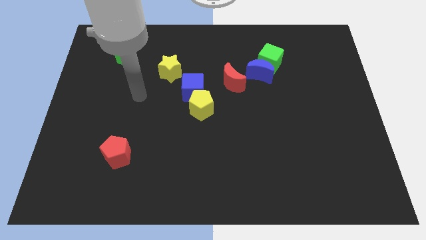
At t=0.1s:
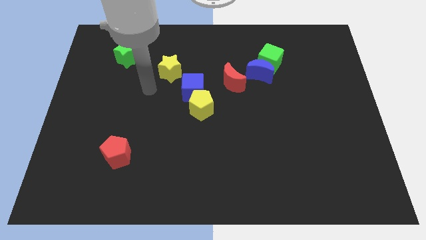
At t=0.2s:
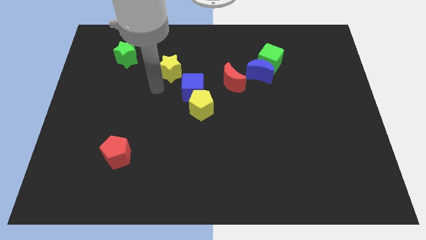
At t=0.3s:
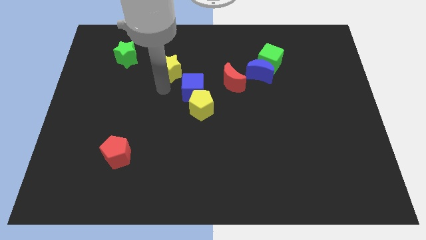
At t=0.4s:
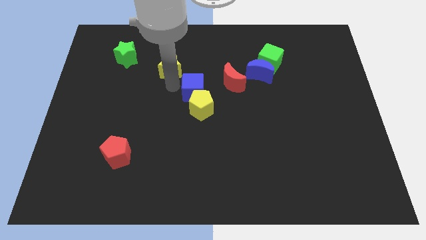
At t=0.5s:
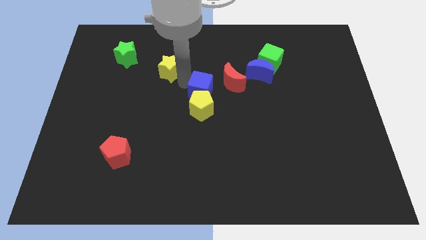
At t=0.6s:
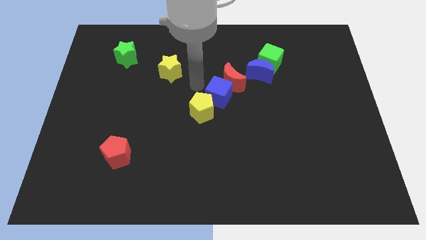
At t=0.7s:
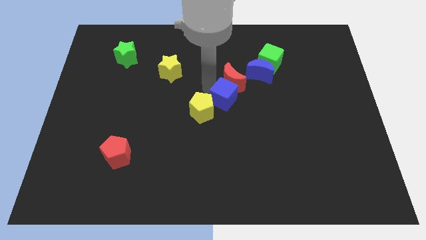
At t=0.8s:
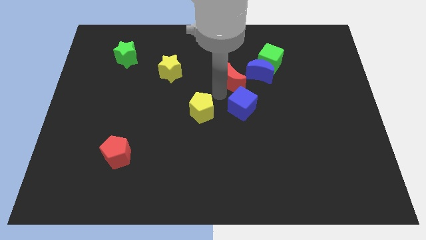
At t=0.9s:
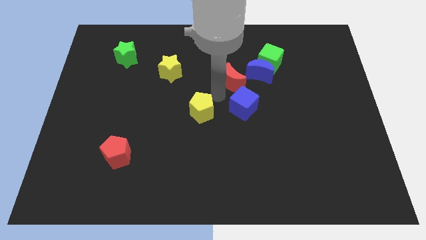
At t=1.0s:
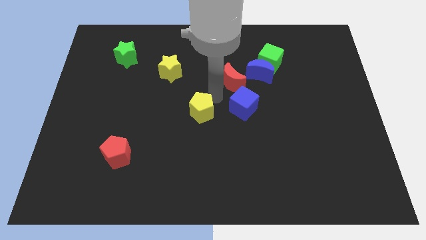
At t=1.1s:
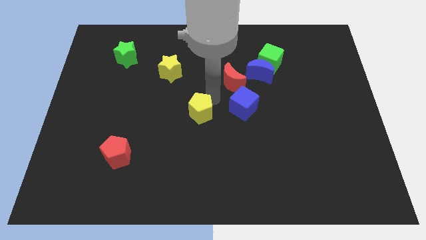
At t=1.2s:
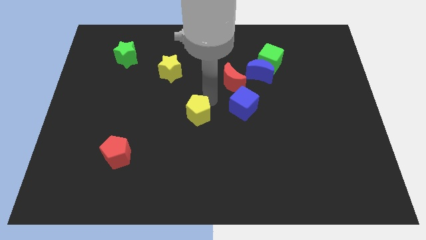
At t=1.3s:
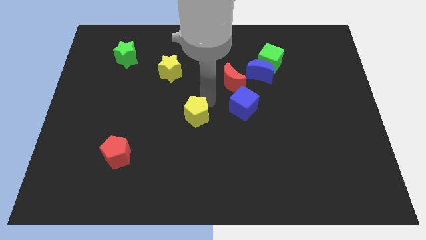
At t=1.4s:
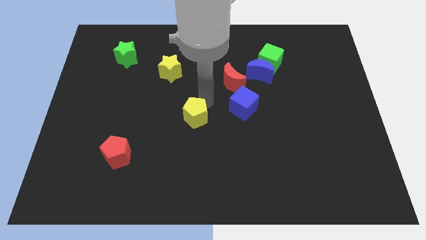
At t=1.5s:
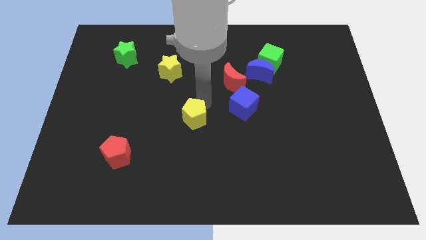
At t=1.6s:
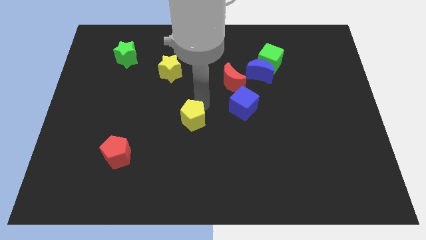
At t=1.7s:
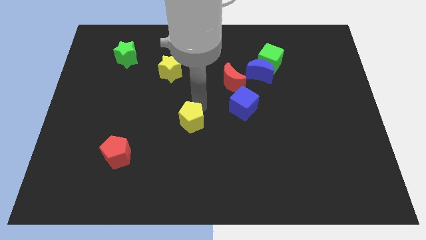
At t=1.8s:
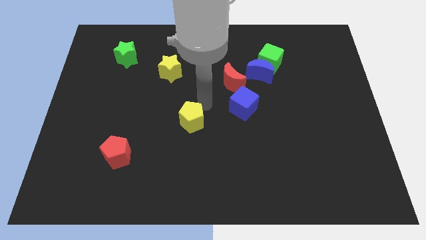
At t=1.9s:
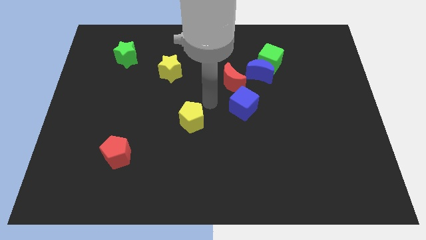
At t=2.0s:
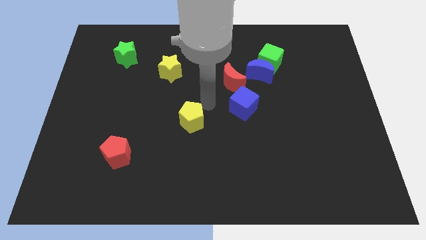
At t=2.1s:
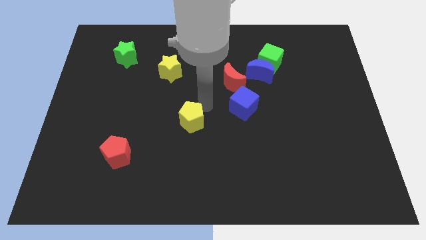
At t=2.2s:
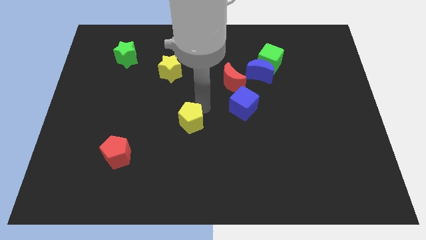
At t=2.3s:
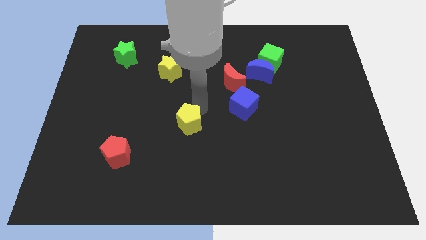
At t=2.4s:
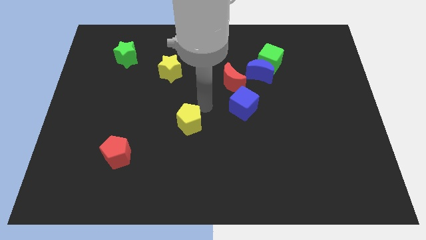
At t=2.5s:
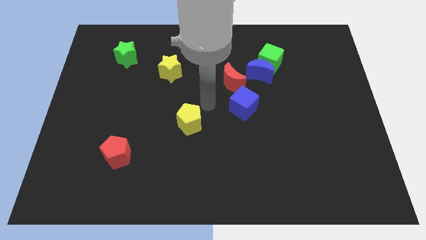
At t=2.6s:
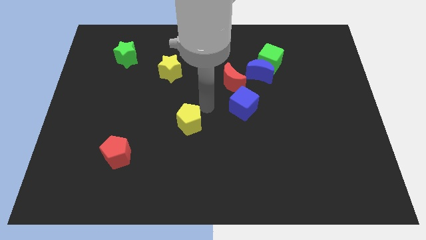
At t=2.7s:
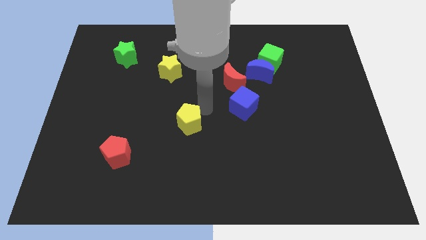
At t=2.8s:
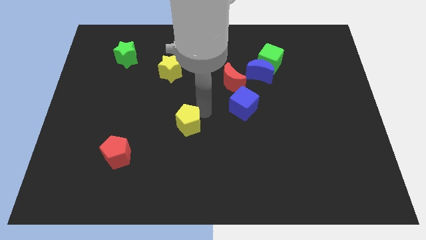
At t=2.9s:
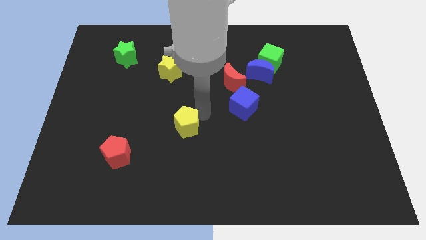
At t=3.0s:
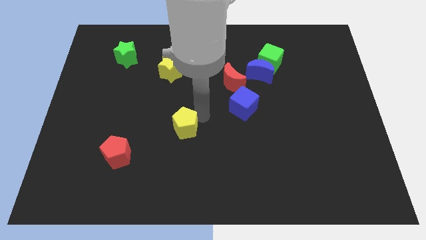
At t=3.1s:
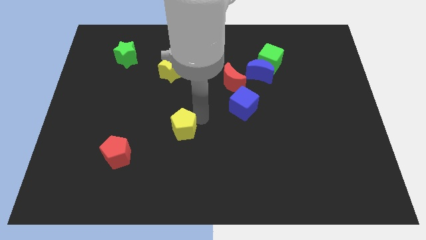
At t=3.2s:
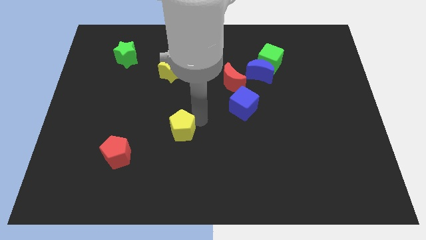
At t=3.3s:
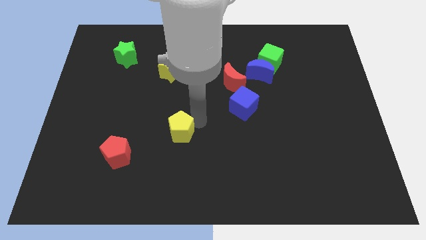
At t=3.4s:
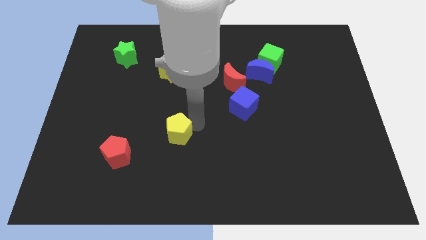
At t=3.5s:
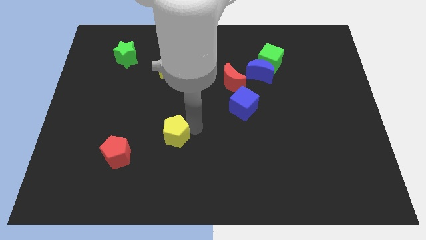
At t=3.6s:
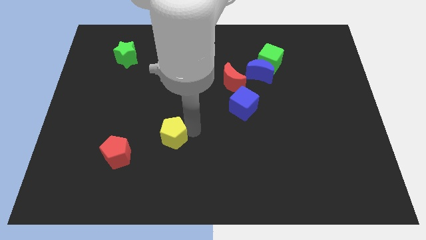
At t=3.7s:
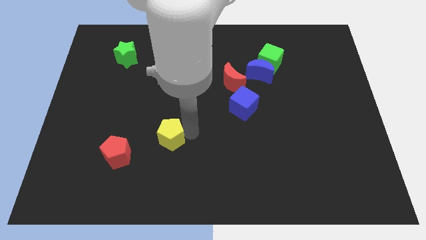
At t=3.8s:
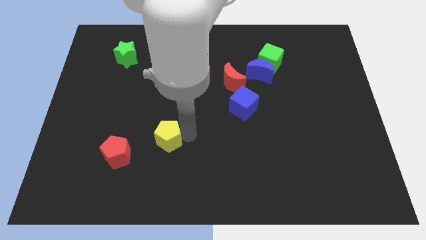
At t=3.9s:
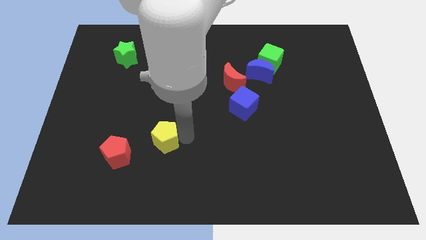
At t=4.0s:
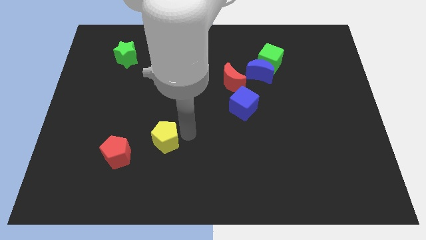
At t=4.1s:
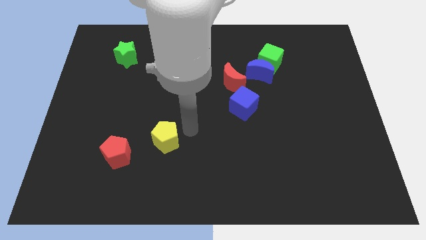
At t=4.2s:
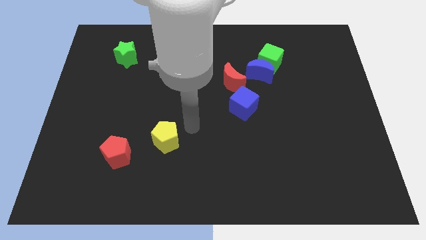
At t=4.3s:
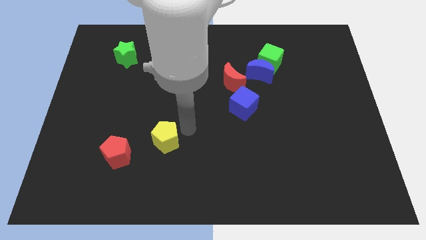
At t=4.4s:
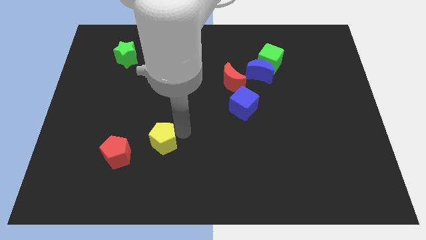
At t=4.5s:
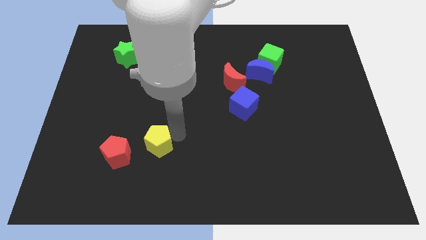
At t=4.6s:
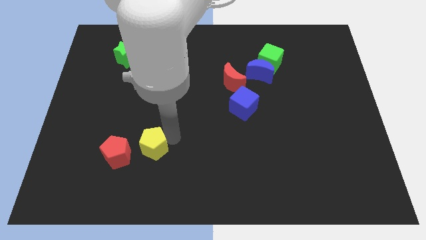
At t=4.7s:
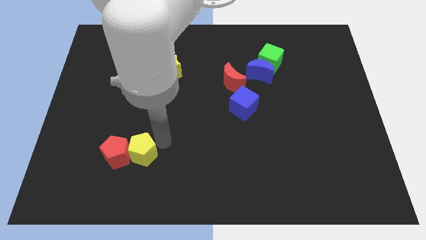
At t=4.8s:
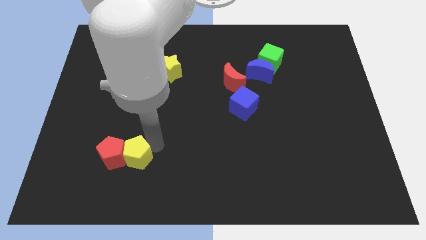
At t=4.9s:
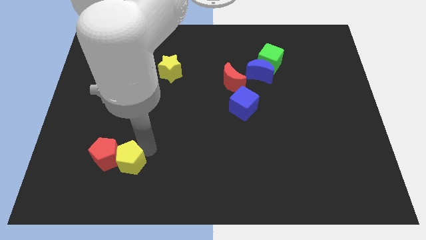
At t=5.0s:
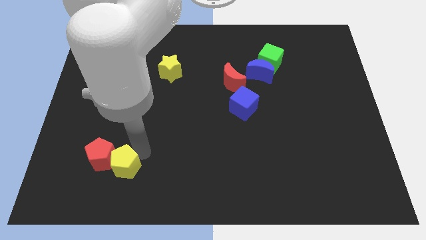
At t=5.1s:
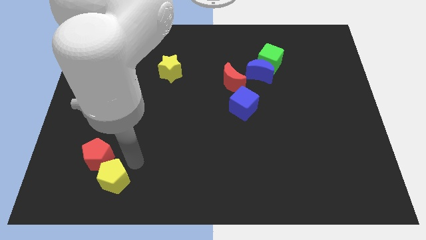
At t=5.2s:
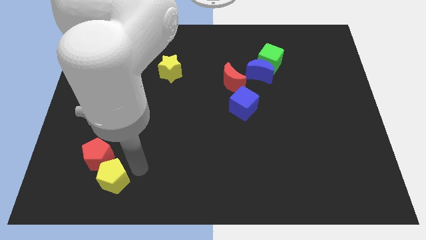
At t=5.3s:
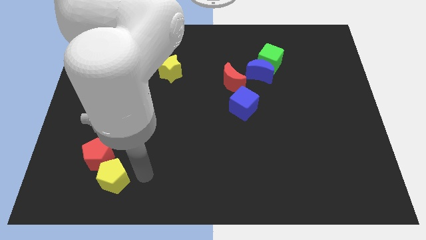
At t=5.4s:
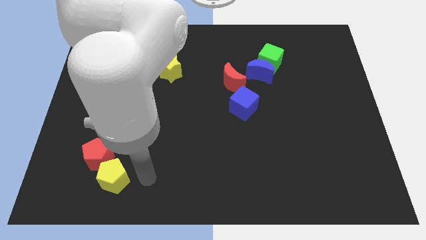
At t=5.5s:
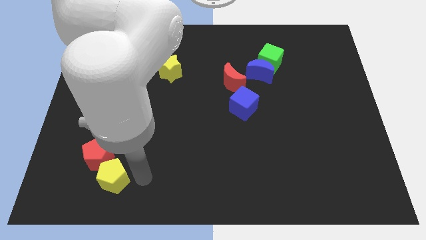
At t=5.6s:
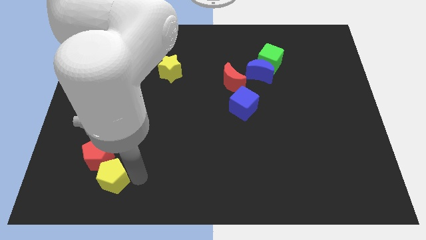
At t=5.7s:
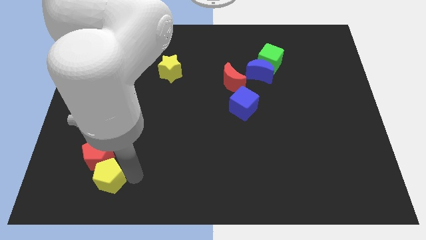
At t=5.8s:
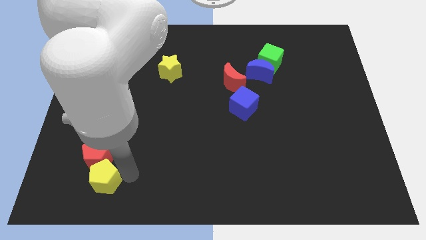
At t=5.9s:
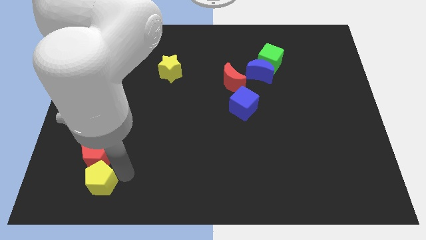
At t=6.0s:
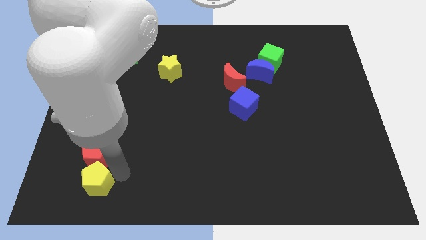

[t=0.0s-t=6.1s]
move the yellow pentagon diagonally down and to the left of the red pentagon

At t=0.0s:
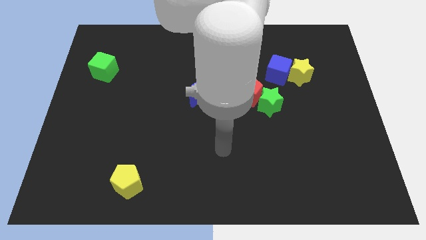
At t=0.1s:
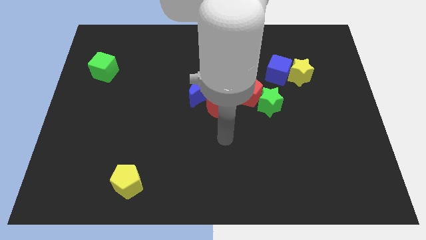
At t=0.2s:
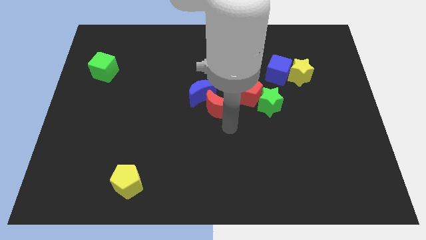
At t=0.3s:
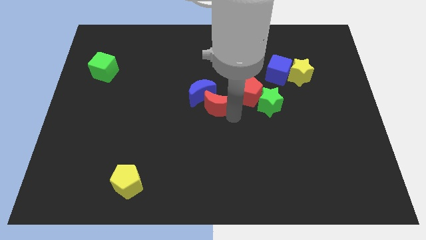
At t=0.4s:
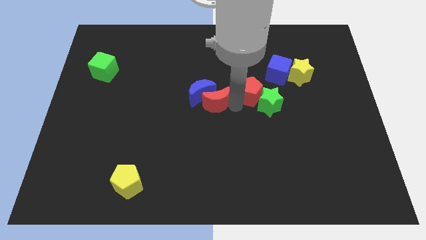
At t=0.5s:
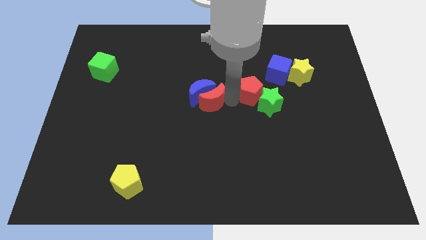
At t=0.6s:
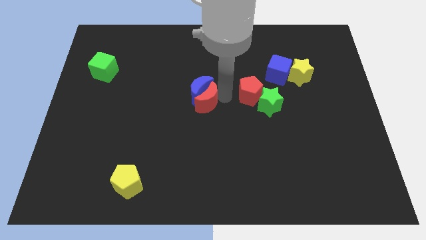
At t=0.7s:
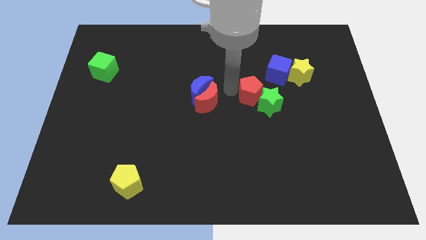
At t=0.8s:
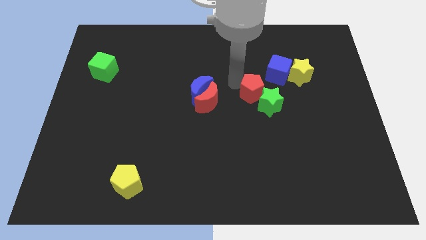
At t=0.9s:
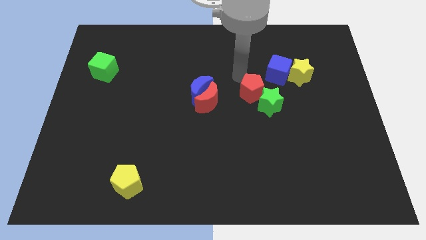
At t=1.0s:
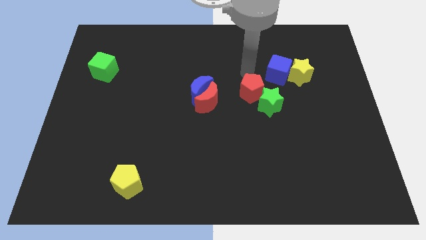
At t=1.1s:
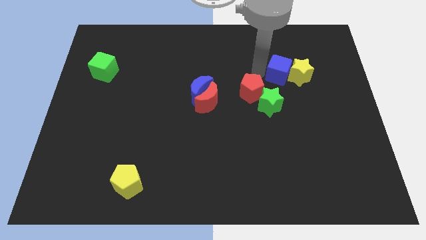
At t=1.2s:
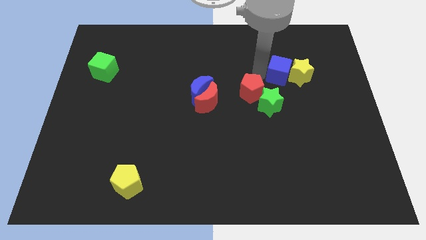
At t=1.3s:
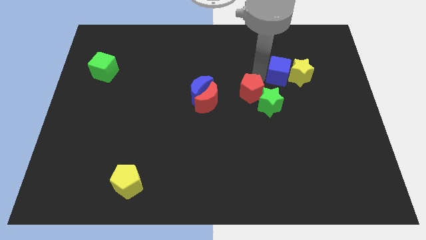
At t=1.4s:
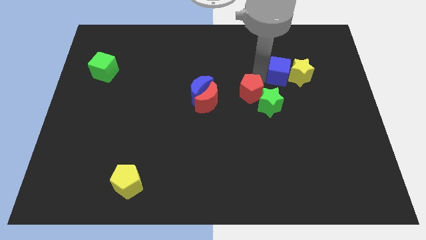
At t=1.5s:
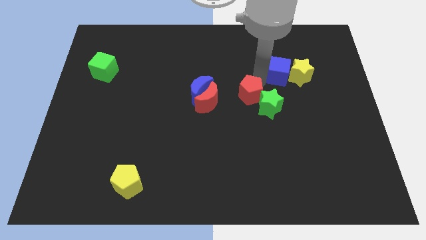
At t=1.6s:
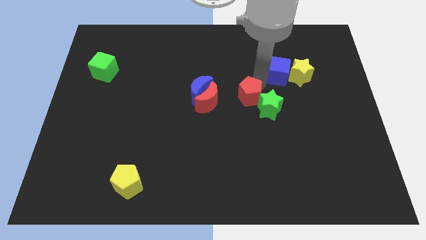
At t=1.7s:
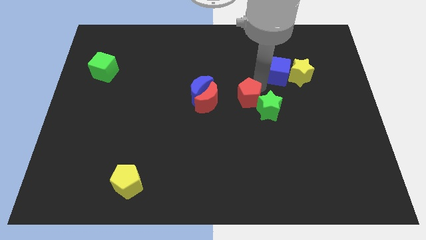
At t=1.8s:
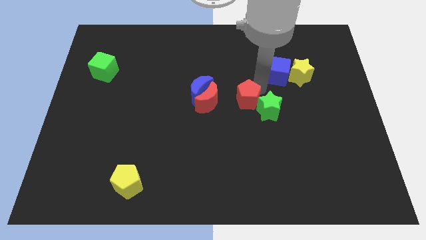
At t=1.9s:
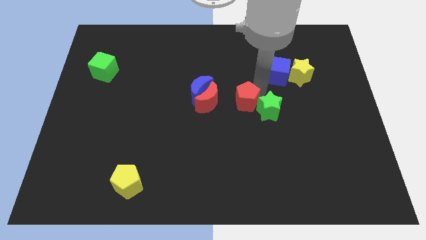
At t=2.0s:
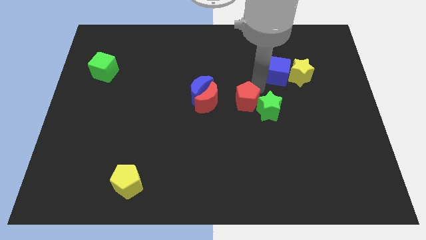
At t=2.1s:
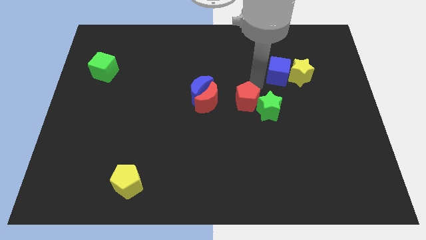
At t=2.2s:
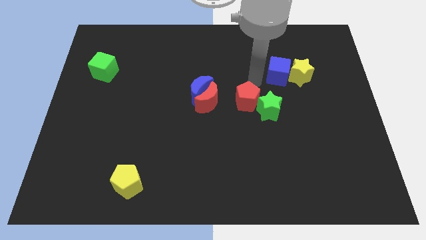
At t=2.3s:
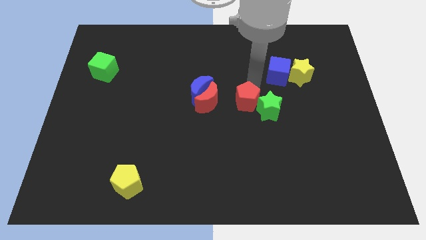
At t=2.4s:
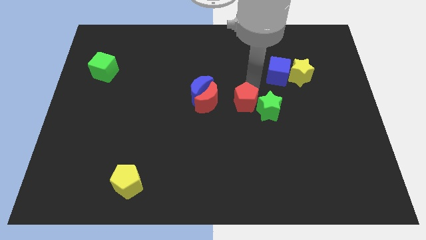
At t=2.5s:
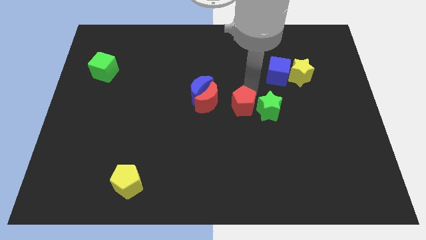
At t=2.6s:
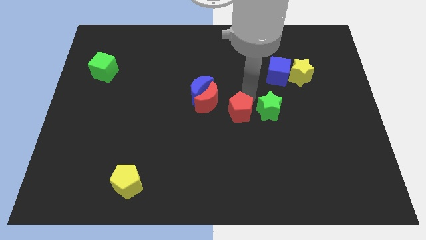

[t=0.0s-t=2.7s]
move the red pentagon diagonally down and to the right of the red moon
